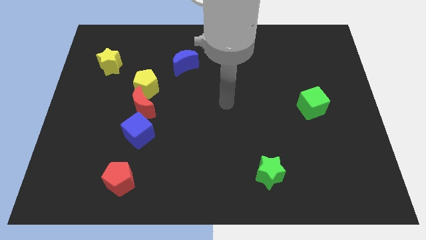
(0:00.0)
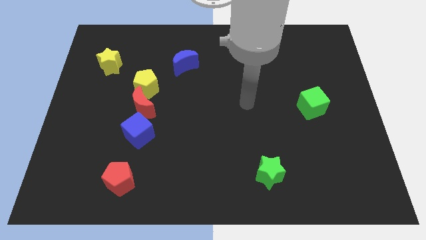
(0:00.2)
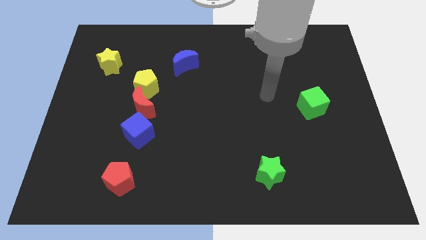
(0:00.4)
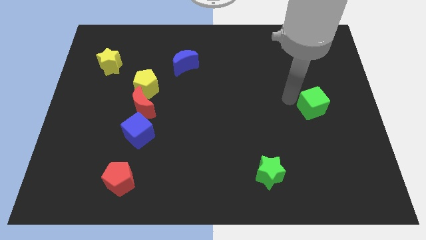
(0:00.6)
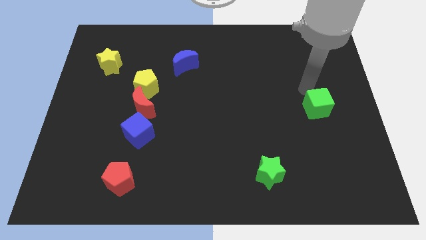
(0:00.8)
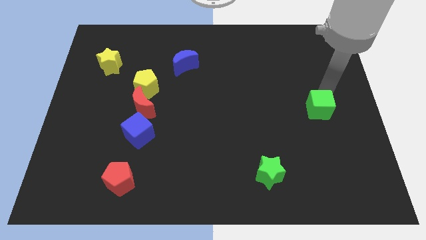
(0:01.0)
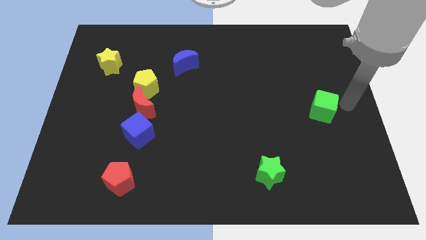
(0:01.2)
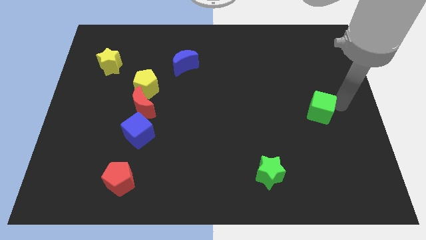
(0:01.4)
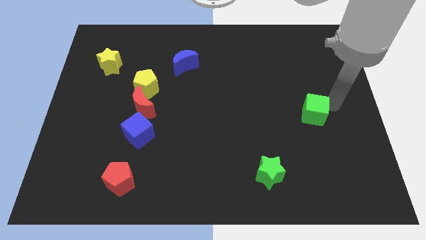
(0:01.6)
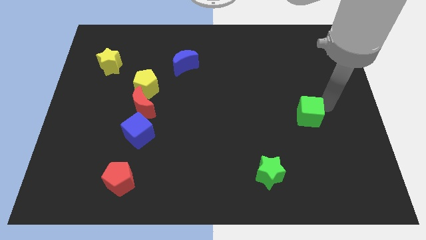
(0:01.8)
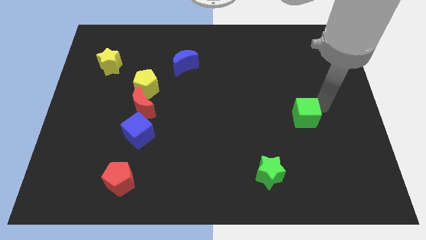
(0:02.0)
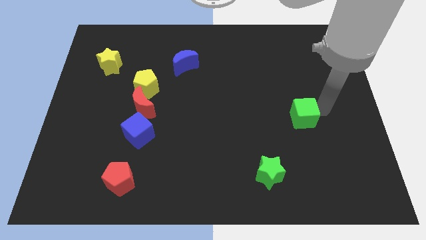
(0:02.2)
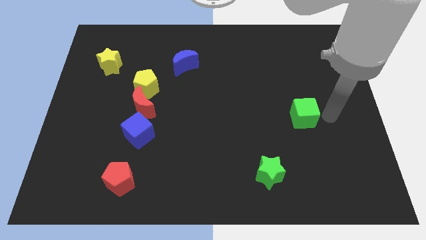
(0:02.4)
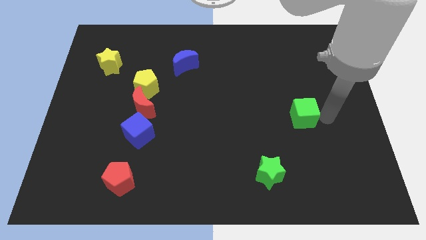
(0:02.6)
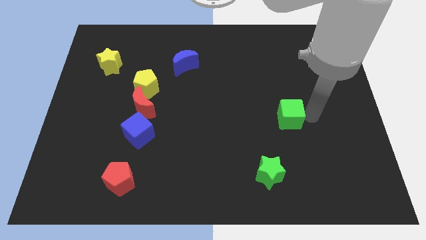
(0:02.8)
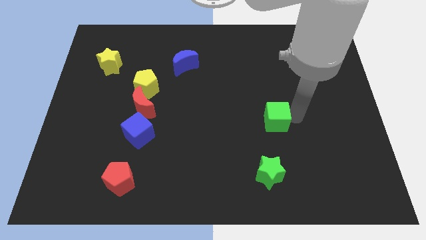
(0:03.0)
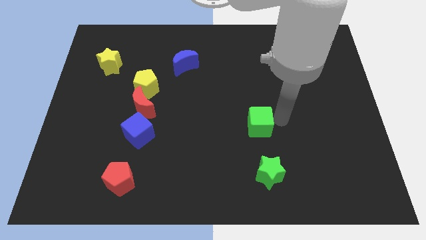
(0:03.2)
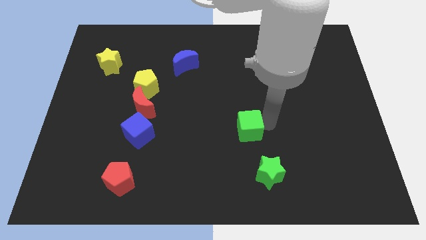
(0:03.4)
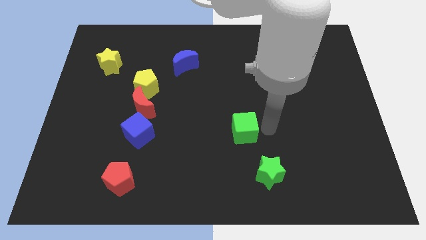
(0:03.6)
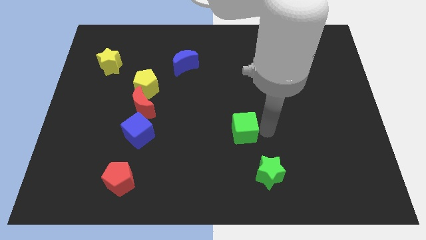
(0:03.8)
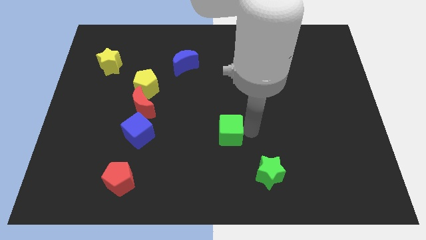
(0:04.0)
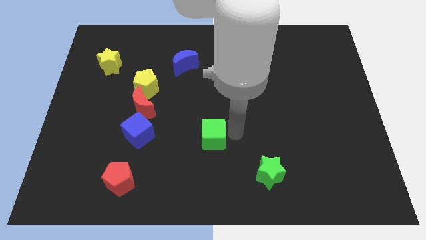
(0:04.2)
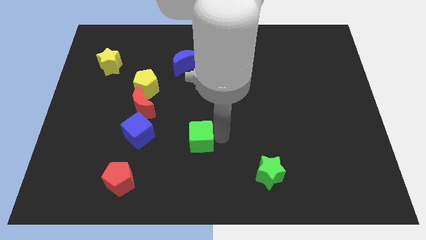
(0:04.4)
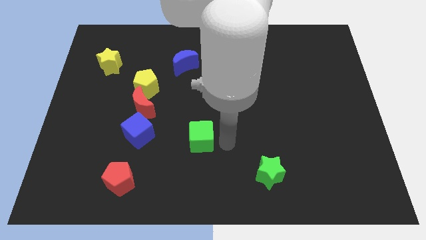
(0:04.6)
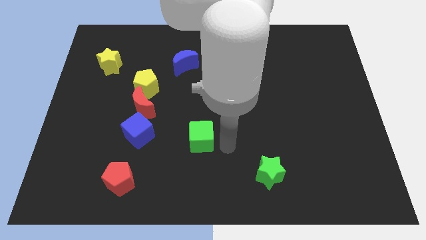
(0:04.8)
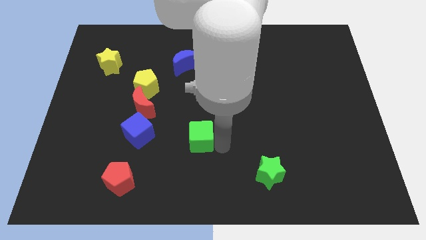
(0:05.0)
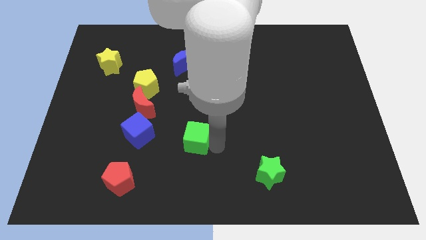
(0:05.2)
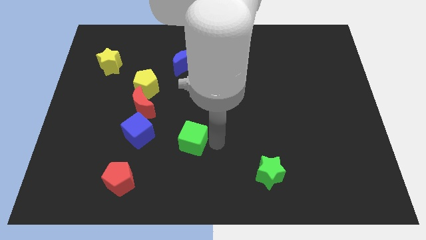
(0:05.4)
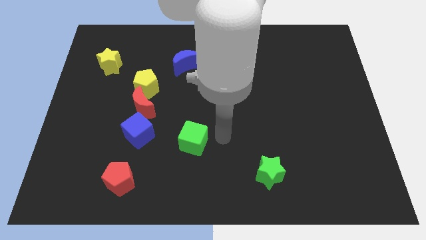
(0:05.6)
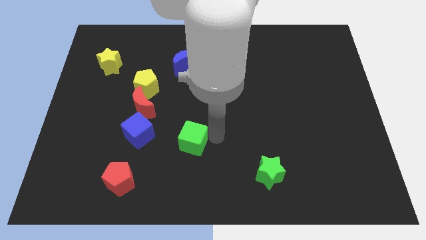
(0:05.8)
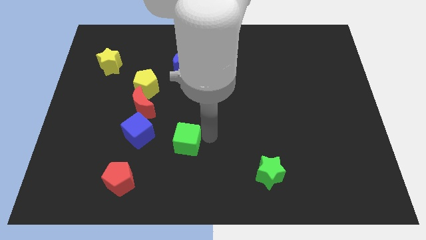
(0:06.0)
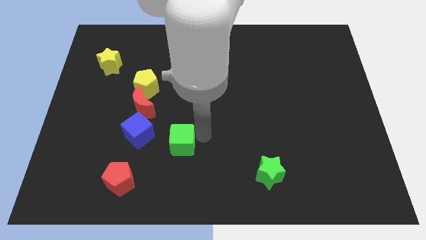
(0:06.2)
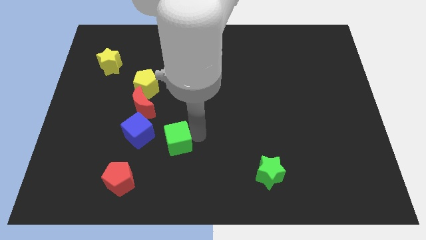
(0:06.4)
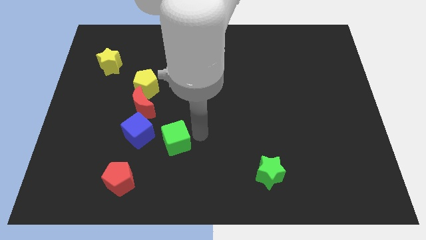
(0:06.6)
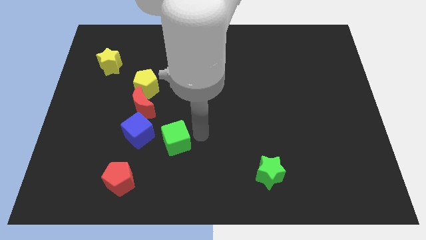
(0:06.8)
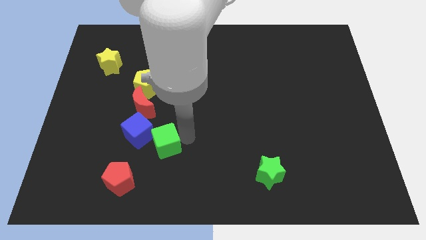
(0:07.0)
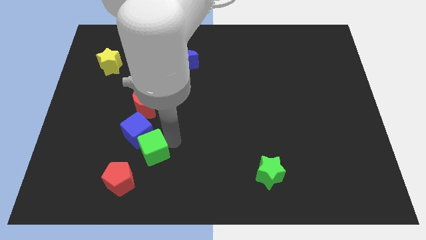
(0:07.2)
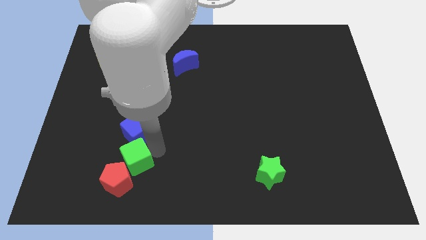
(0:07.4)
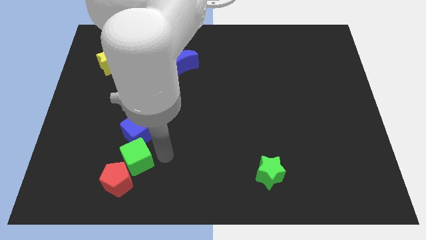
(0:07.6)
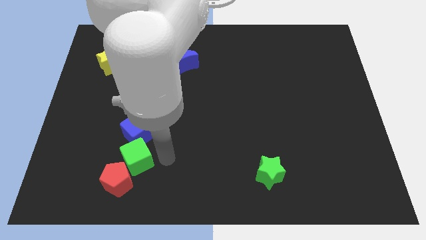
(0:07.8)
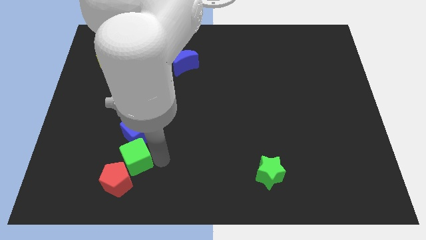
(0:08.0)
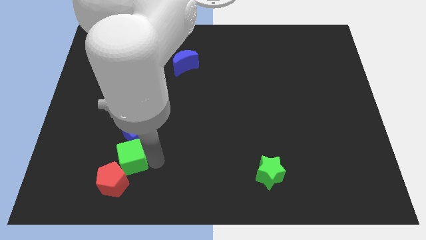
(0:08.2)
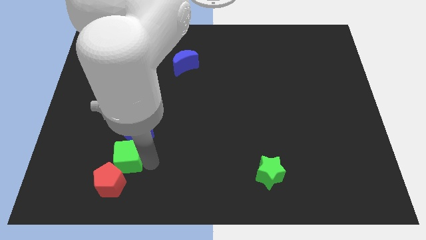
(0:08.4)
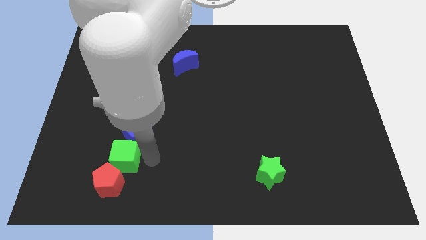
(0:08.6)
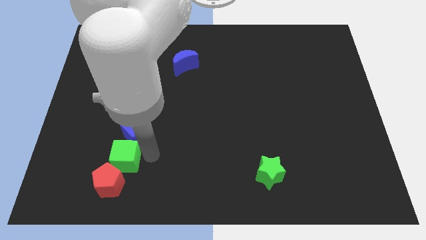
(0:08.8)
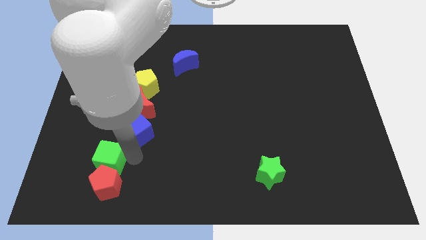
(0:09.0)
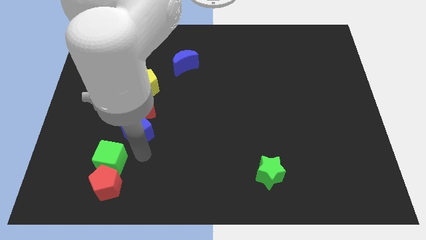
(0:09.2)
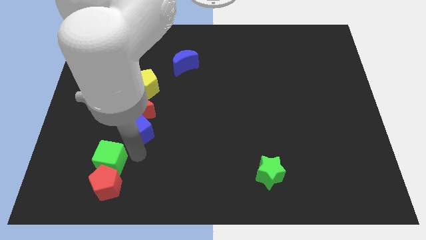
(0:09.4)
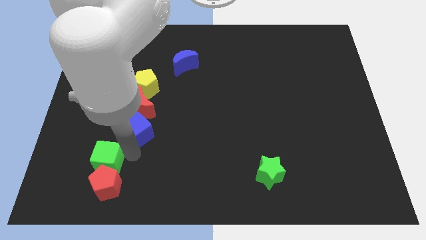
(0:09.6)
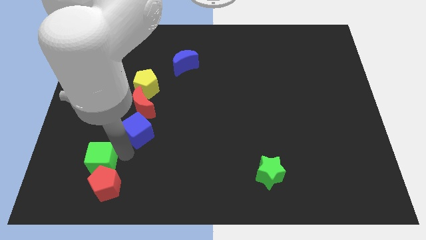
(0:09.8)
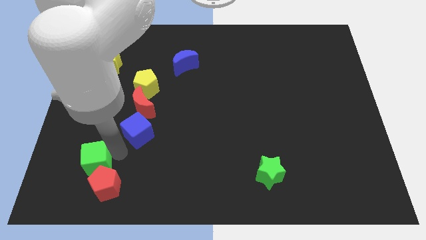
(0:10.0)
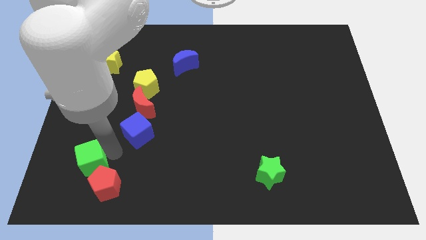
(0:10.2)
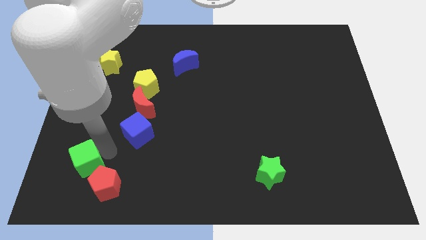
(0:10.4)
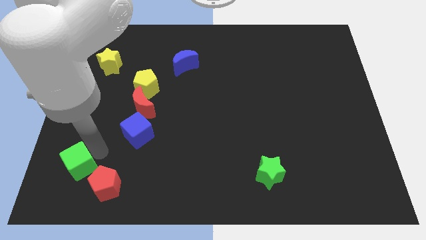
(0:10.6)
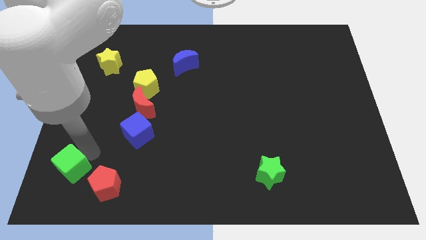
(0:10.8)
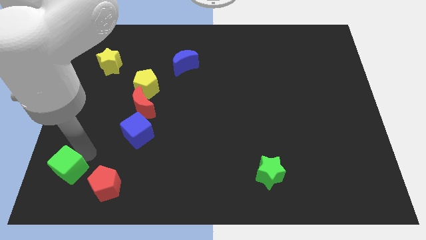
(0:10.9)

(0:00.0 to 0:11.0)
move the green cube to the bottom left corner

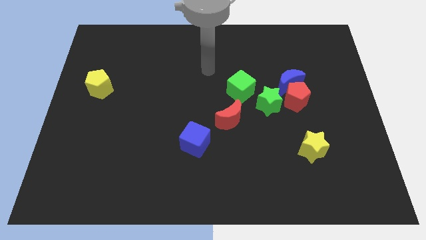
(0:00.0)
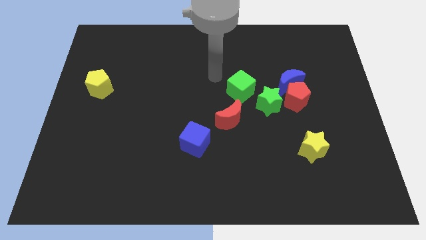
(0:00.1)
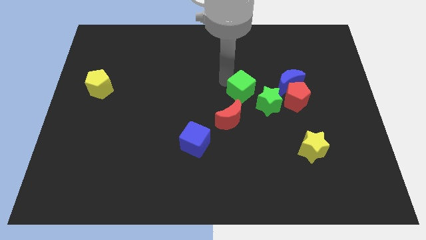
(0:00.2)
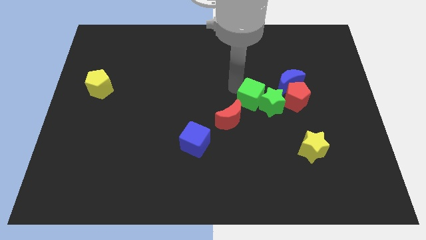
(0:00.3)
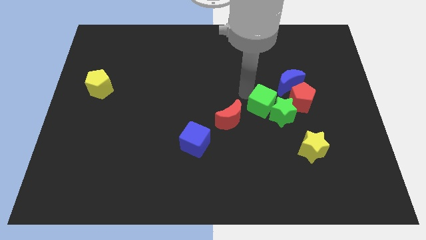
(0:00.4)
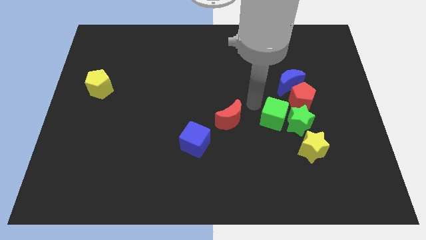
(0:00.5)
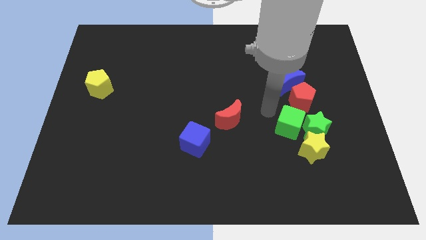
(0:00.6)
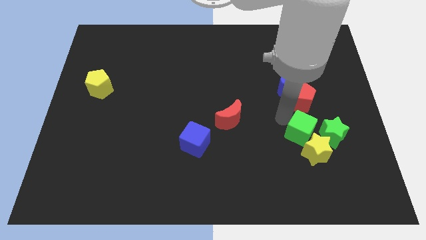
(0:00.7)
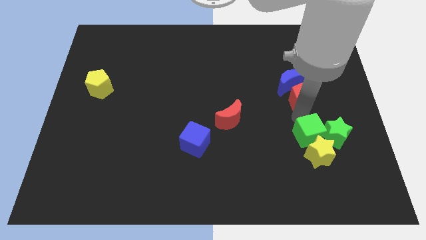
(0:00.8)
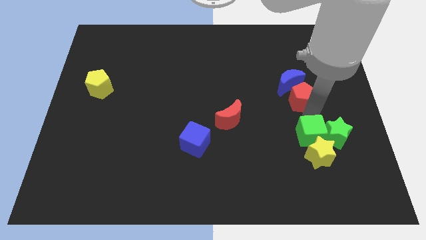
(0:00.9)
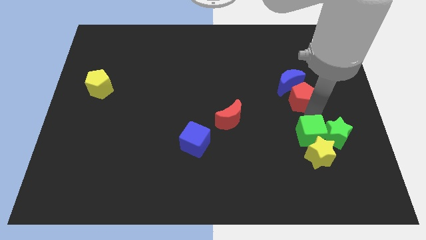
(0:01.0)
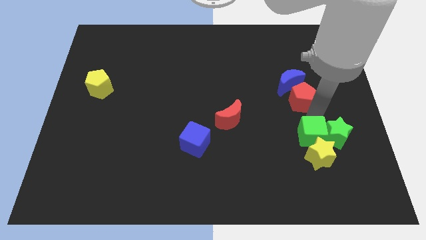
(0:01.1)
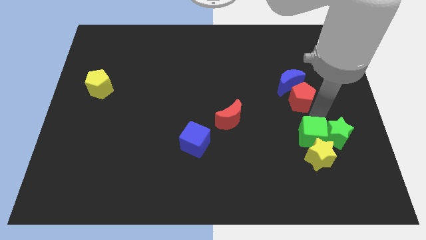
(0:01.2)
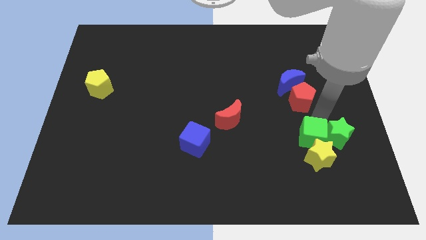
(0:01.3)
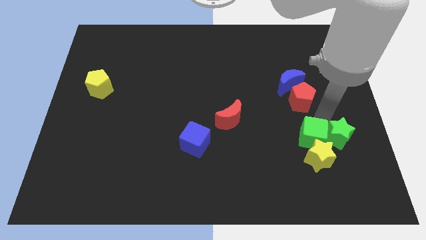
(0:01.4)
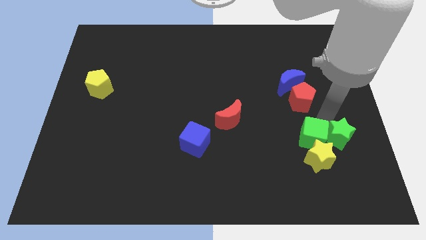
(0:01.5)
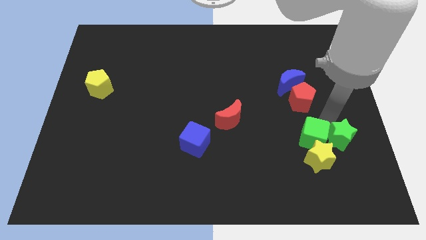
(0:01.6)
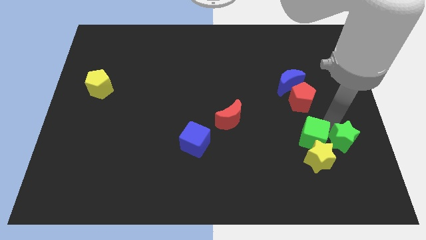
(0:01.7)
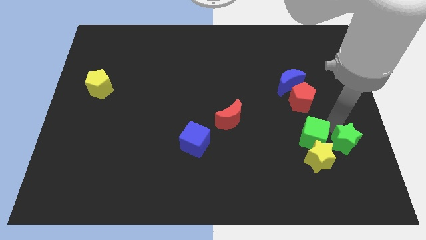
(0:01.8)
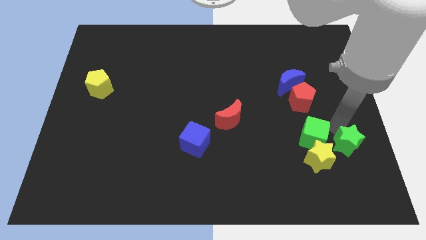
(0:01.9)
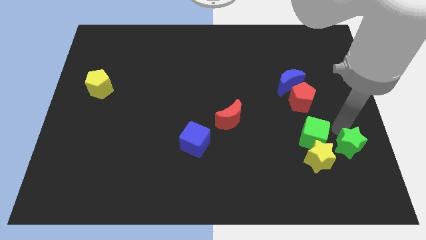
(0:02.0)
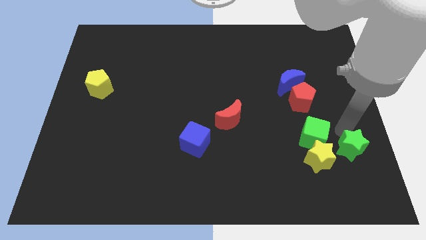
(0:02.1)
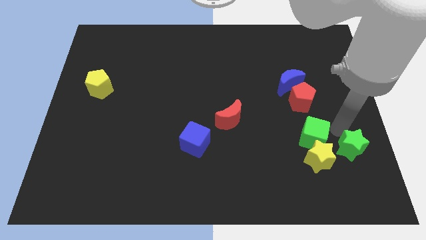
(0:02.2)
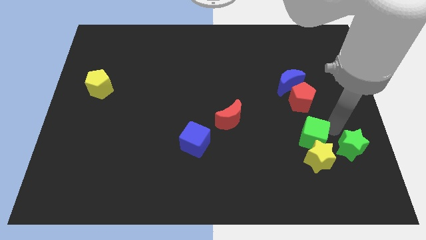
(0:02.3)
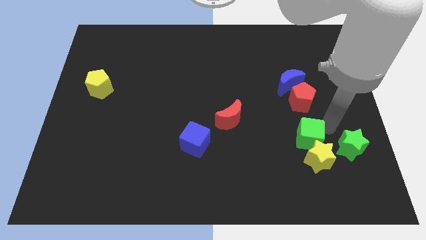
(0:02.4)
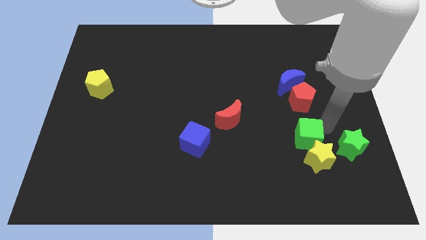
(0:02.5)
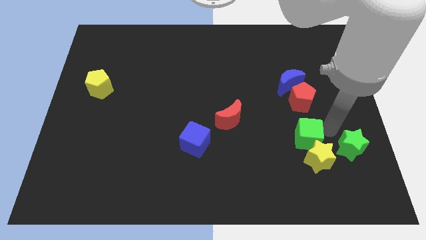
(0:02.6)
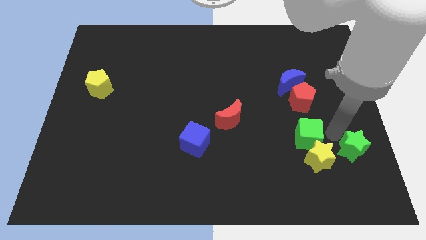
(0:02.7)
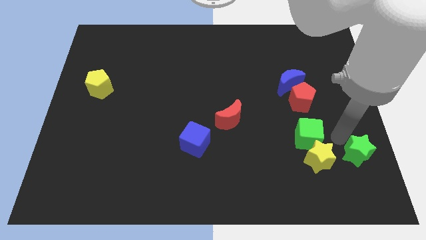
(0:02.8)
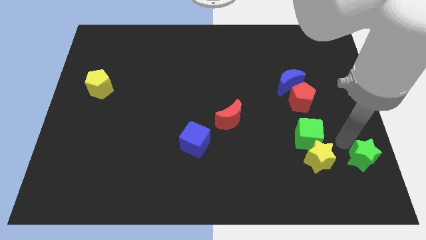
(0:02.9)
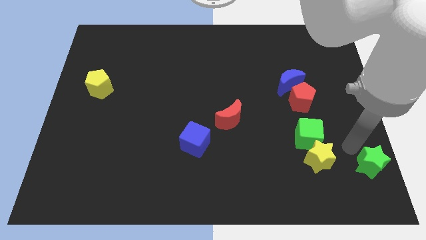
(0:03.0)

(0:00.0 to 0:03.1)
push the green star to the bottom right
